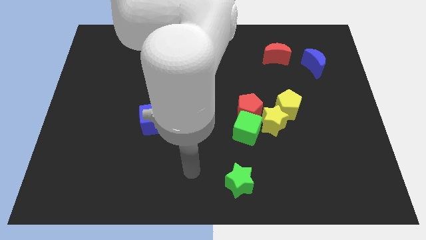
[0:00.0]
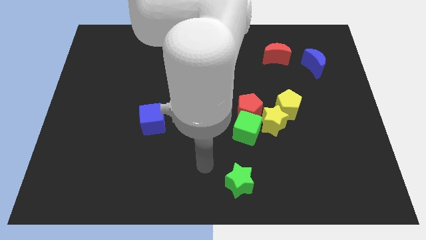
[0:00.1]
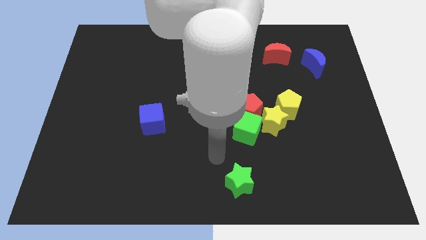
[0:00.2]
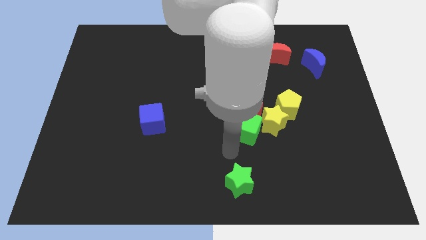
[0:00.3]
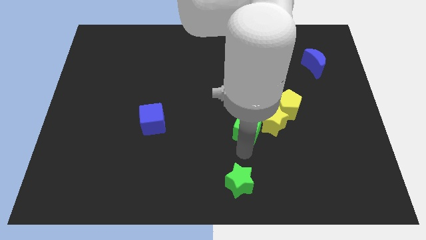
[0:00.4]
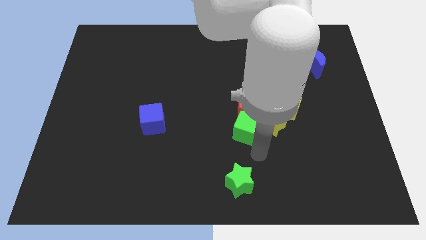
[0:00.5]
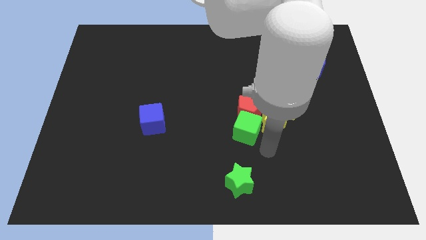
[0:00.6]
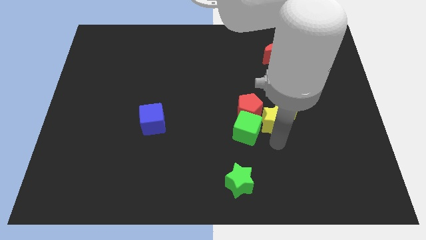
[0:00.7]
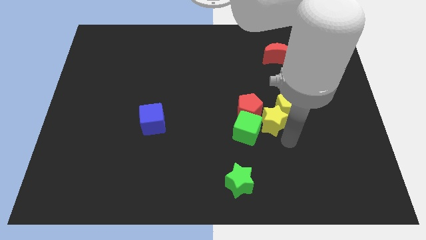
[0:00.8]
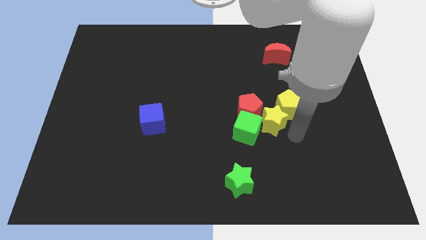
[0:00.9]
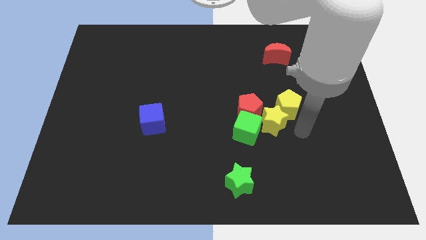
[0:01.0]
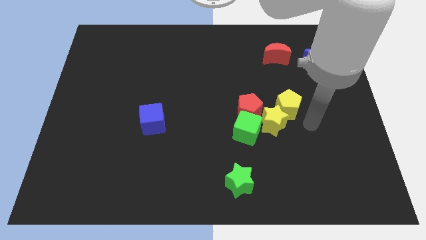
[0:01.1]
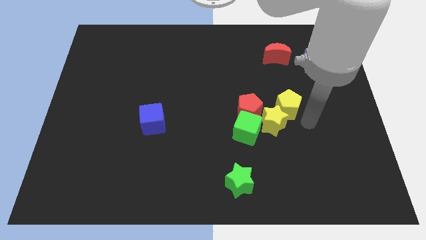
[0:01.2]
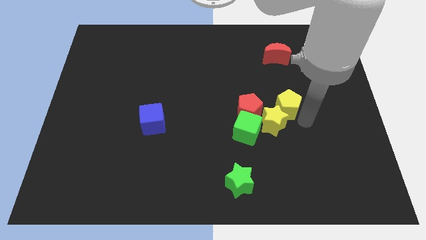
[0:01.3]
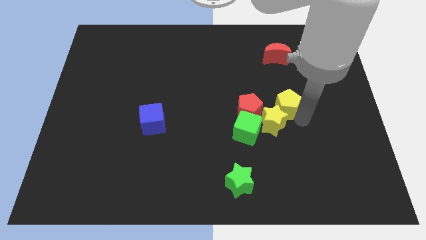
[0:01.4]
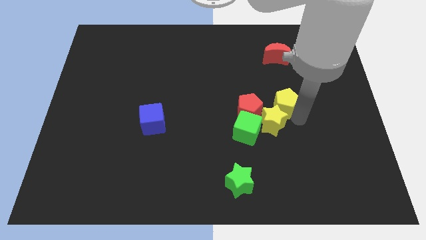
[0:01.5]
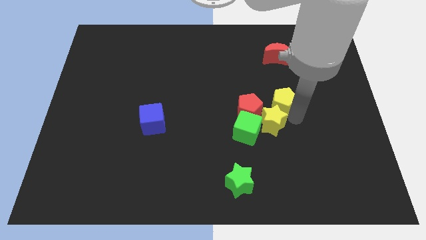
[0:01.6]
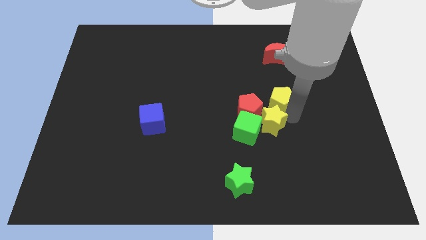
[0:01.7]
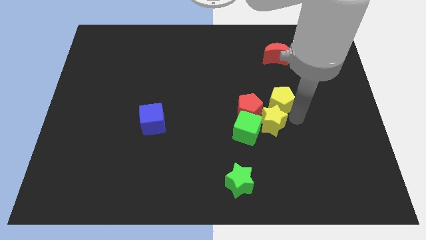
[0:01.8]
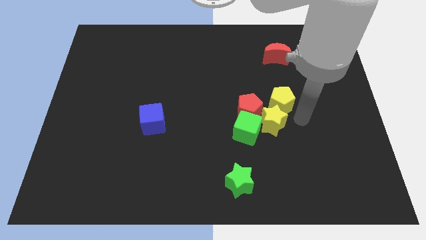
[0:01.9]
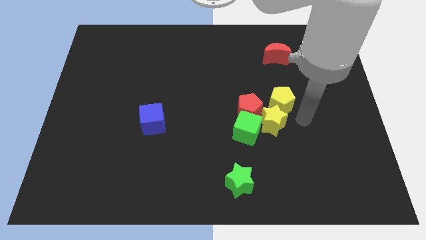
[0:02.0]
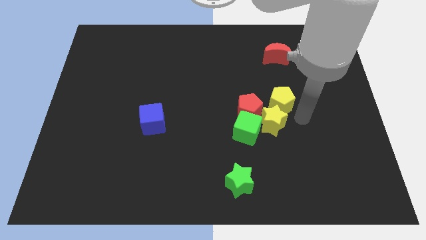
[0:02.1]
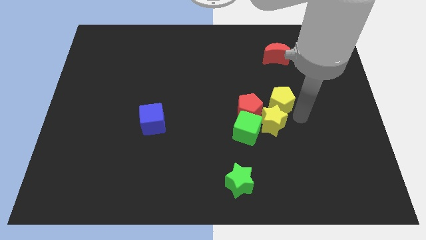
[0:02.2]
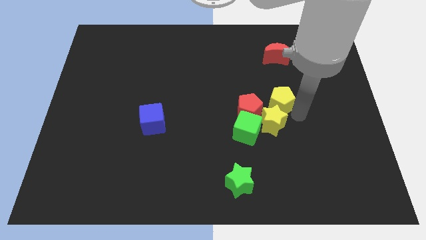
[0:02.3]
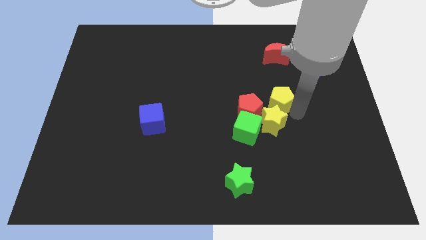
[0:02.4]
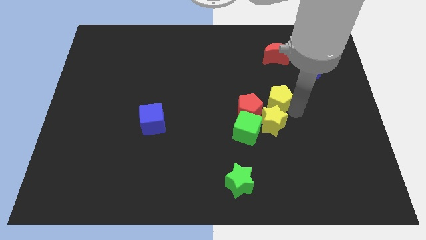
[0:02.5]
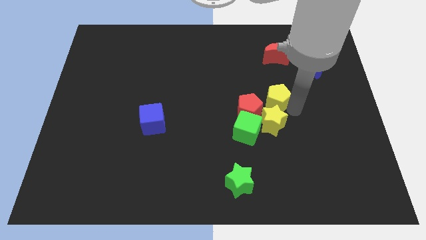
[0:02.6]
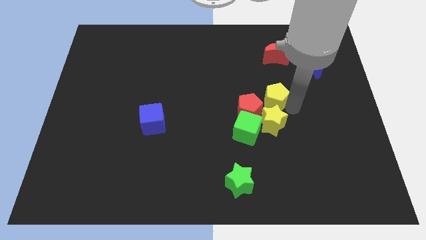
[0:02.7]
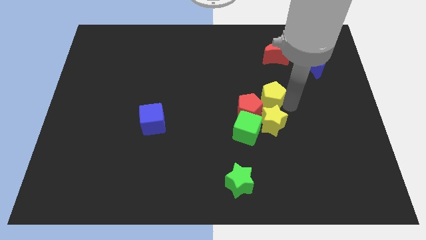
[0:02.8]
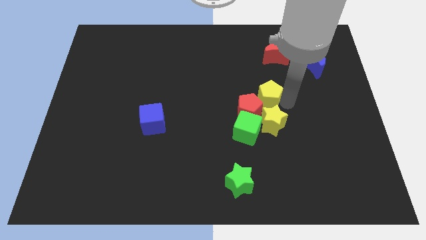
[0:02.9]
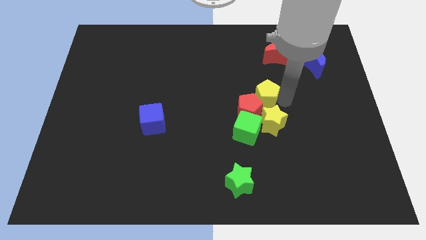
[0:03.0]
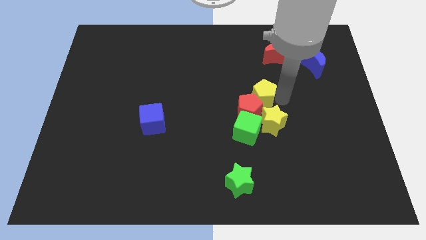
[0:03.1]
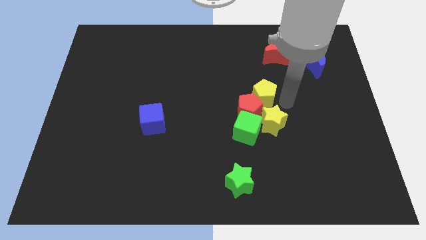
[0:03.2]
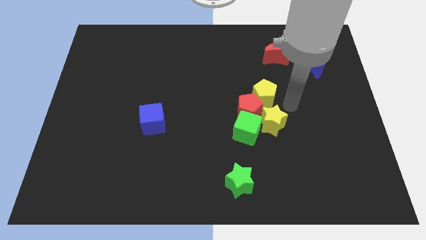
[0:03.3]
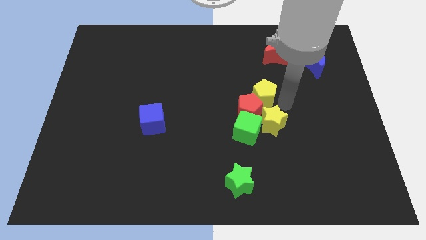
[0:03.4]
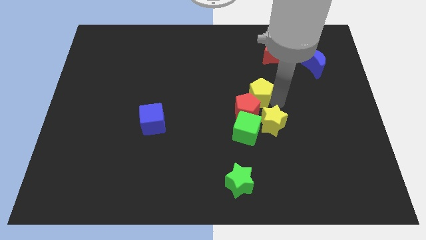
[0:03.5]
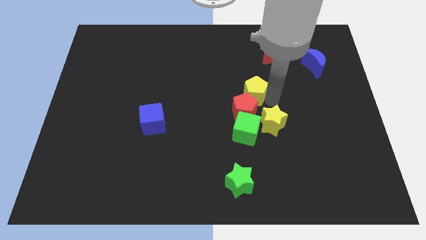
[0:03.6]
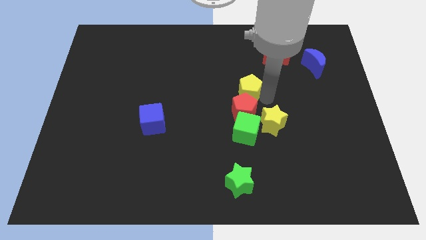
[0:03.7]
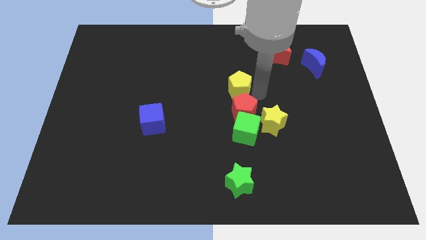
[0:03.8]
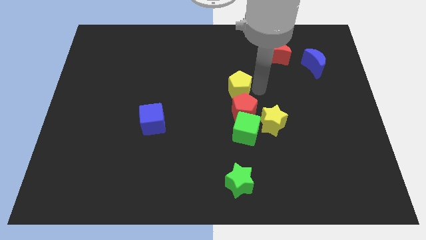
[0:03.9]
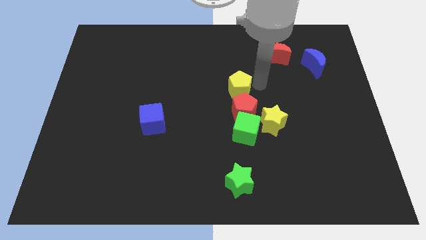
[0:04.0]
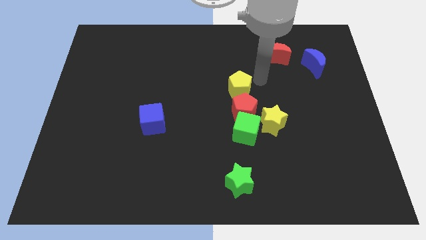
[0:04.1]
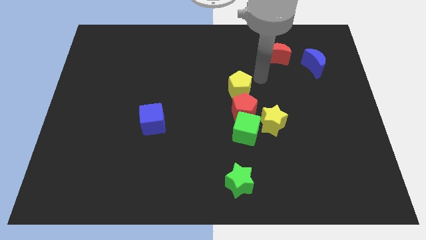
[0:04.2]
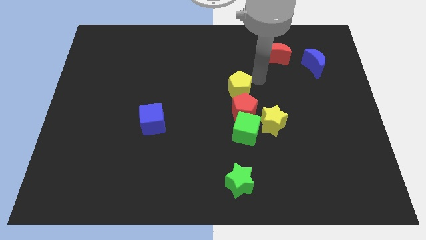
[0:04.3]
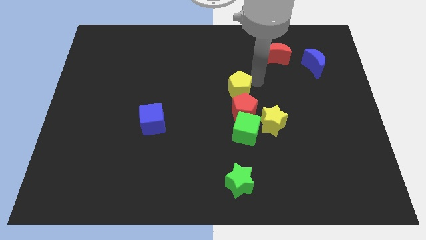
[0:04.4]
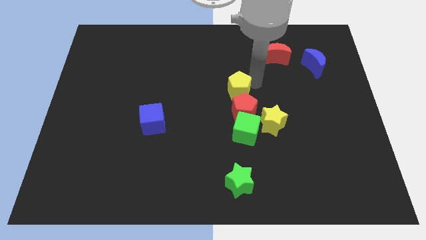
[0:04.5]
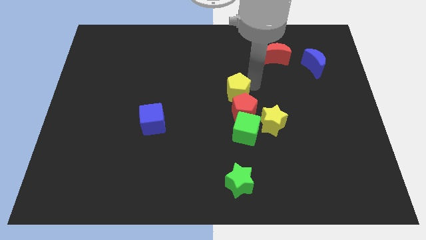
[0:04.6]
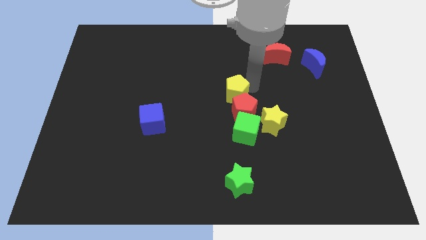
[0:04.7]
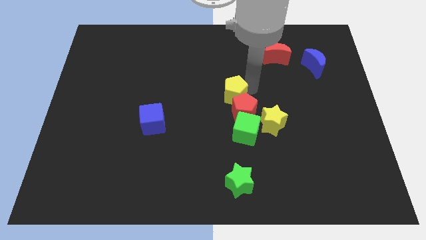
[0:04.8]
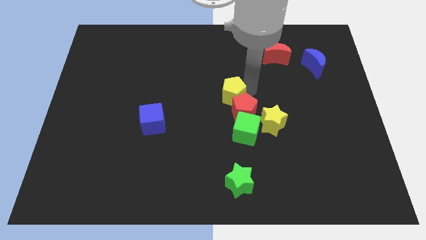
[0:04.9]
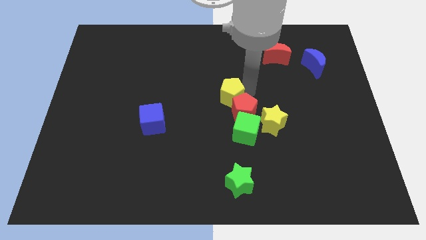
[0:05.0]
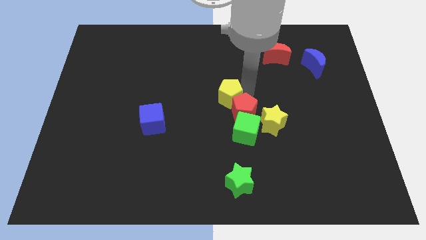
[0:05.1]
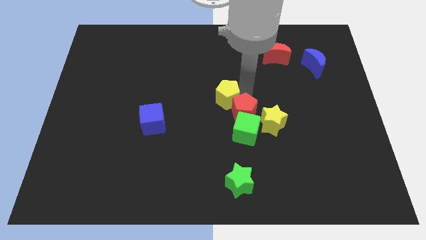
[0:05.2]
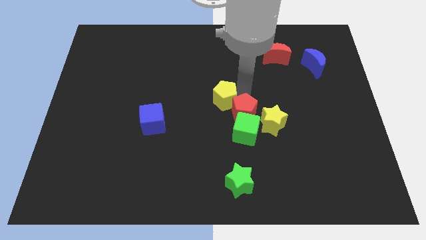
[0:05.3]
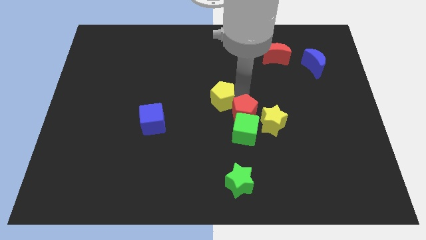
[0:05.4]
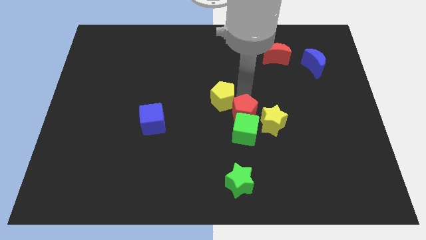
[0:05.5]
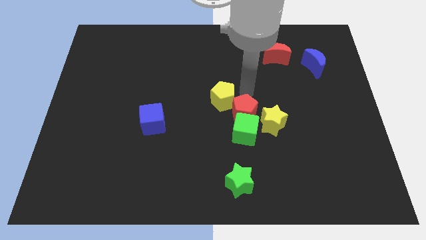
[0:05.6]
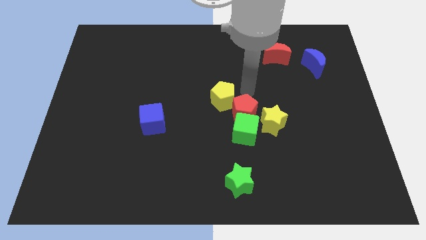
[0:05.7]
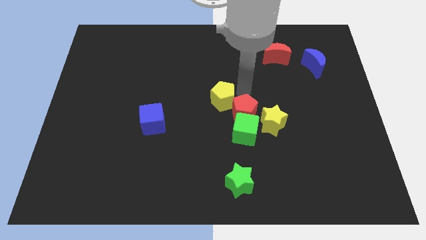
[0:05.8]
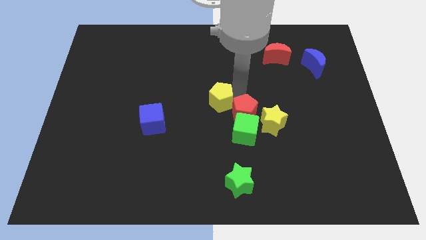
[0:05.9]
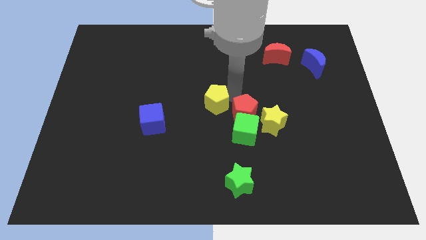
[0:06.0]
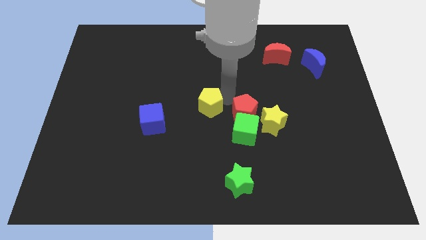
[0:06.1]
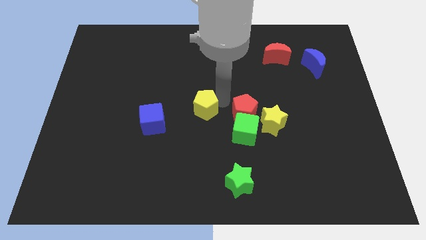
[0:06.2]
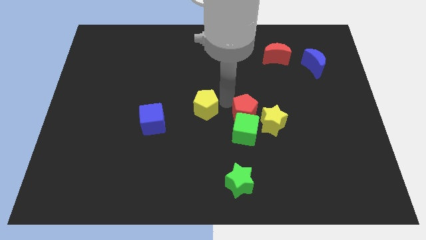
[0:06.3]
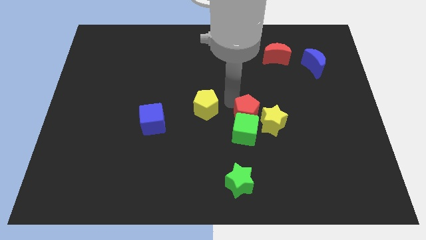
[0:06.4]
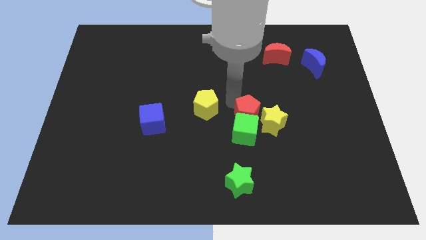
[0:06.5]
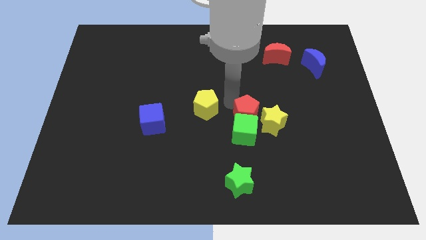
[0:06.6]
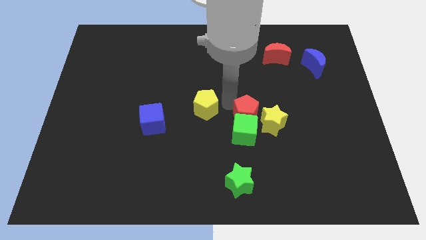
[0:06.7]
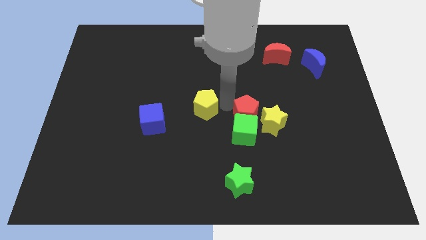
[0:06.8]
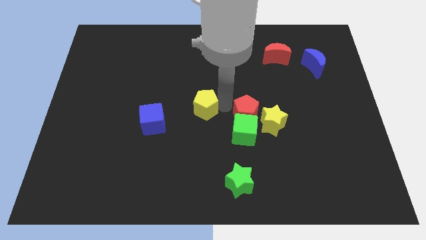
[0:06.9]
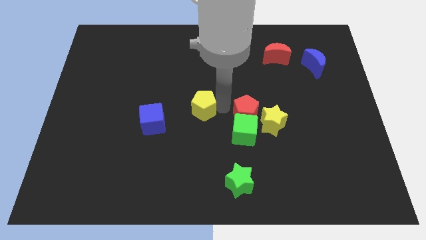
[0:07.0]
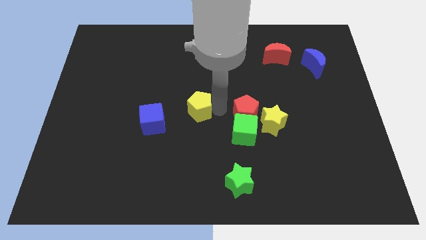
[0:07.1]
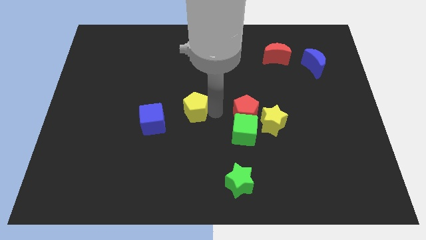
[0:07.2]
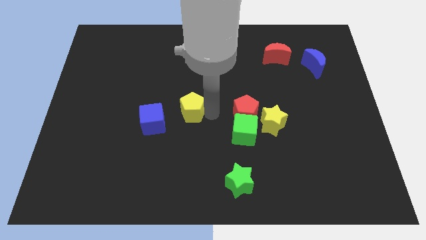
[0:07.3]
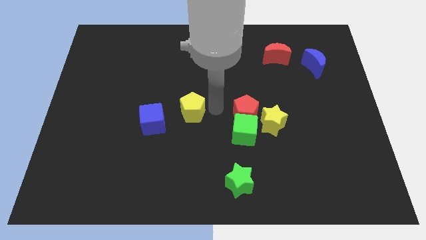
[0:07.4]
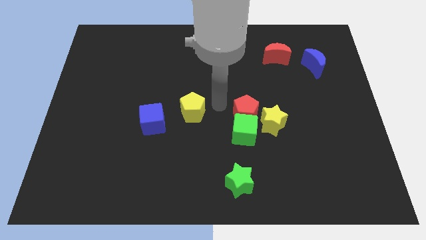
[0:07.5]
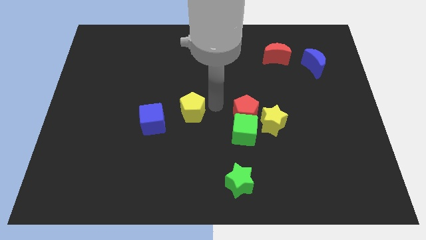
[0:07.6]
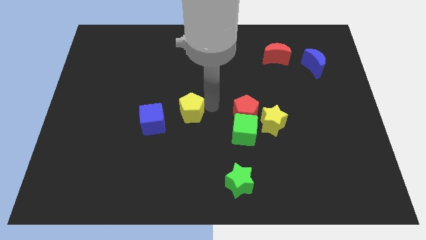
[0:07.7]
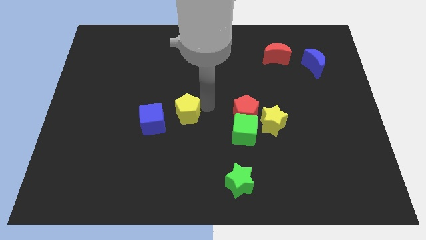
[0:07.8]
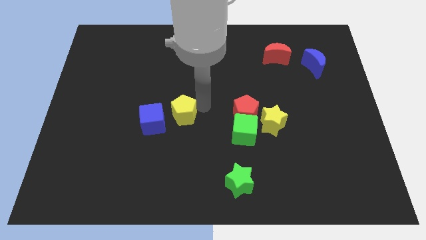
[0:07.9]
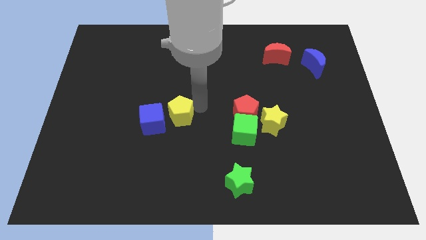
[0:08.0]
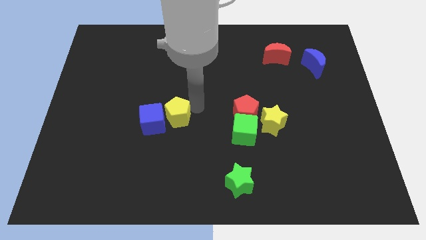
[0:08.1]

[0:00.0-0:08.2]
slide the yellow pentagon next to the blue cube
